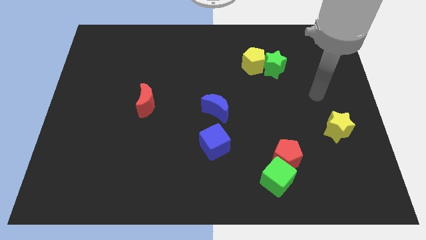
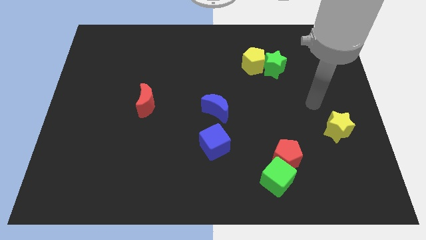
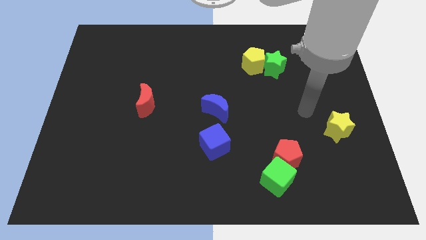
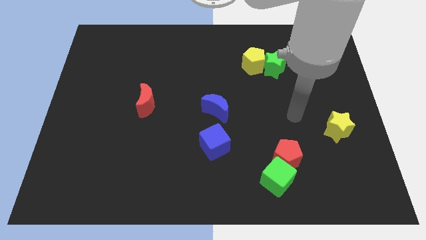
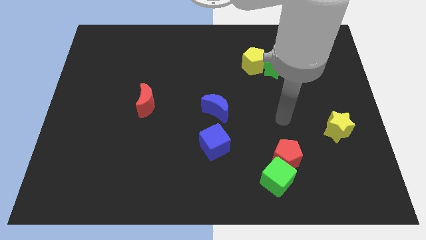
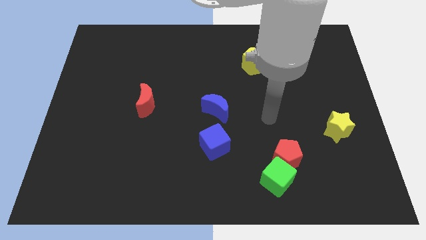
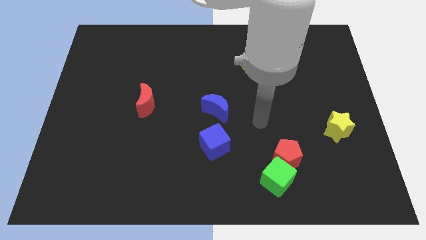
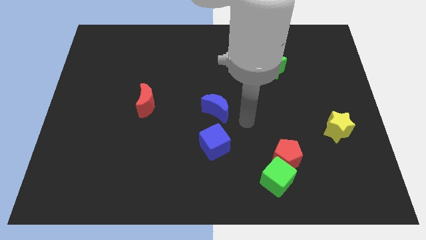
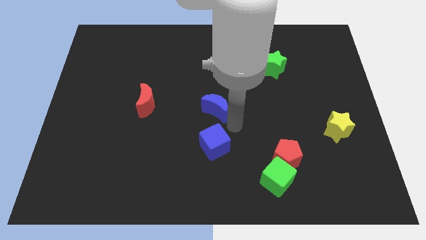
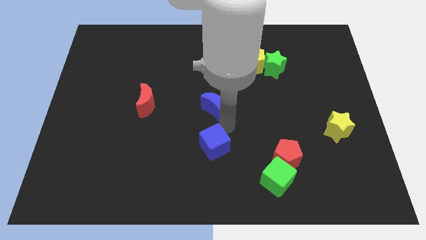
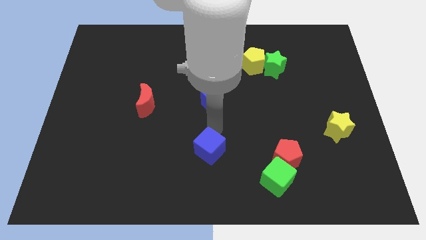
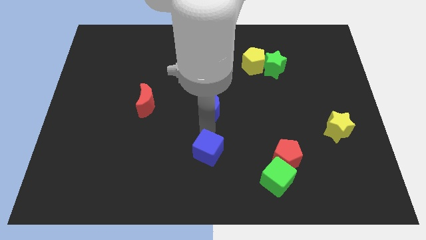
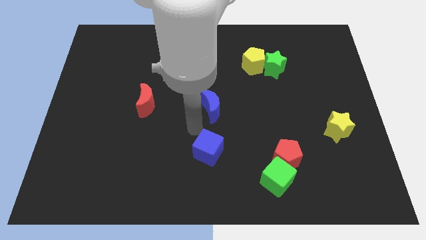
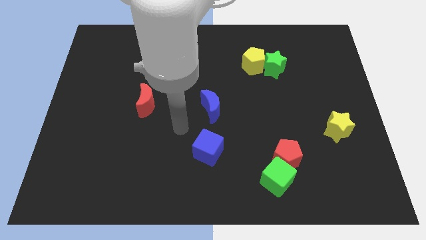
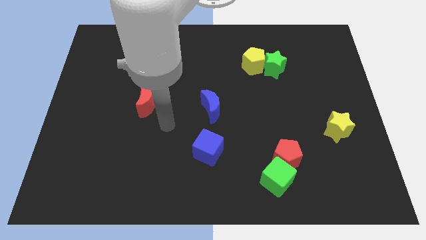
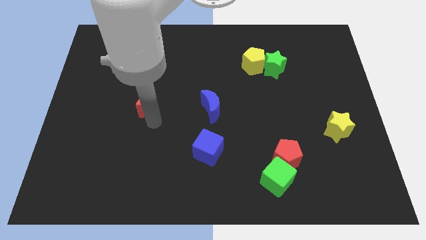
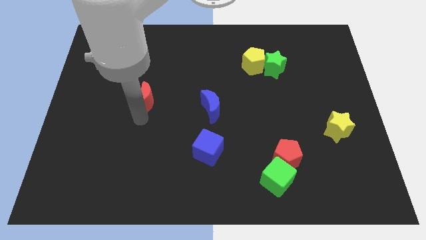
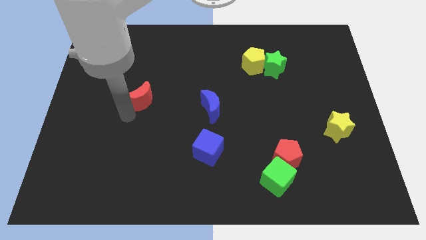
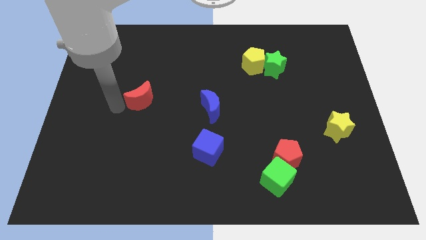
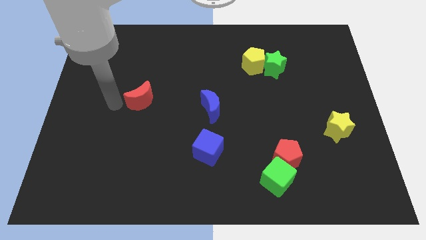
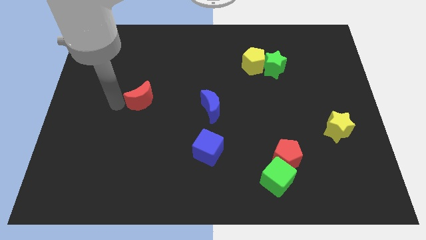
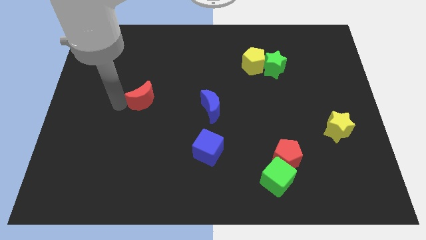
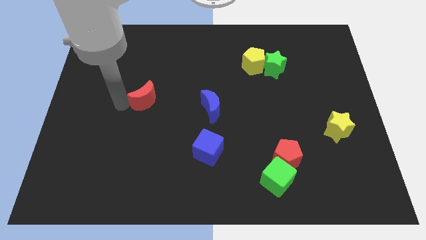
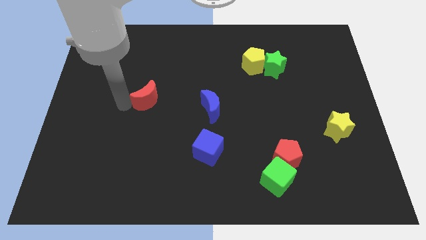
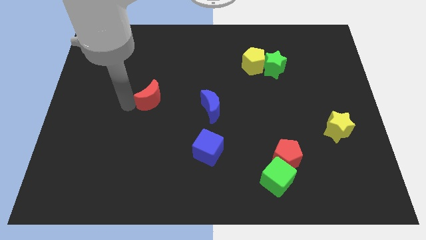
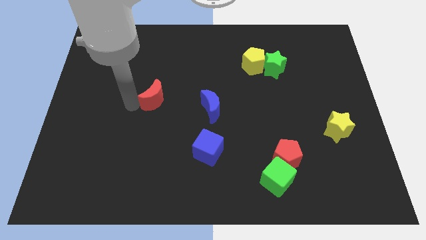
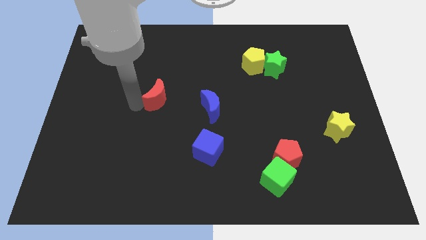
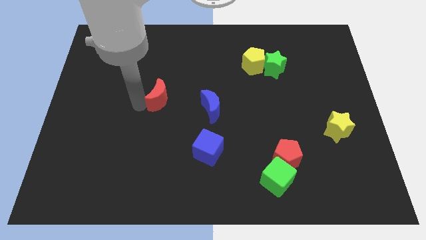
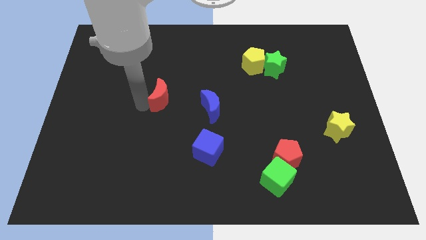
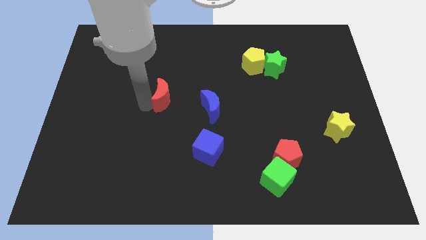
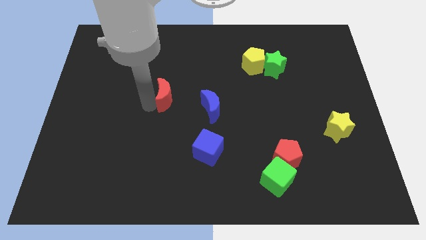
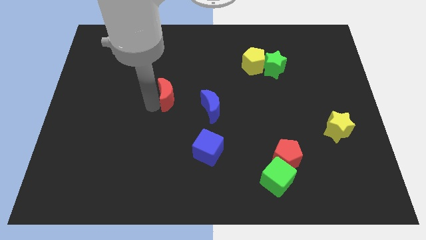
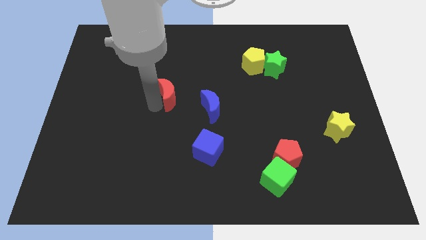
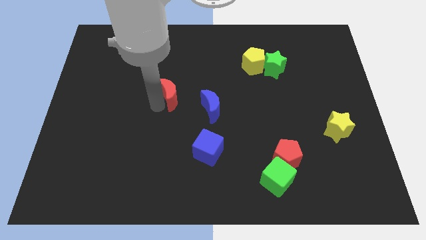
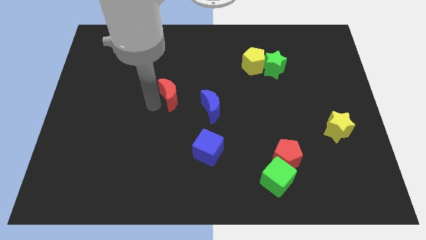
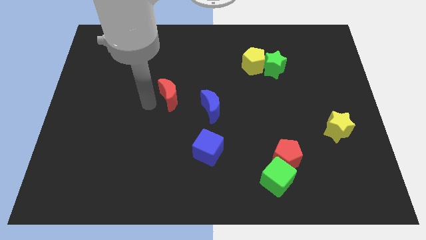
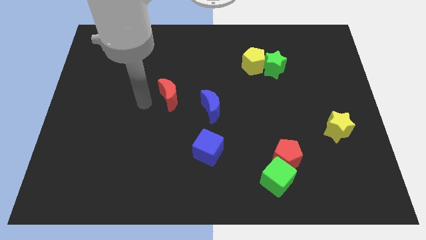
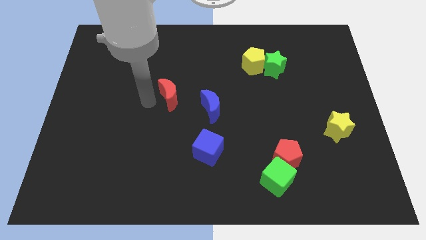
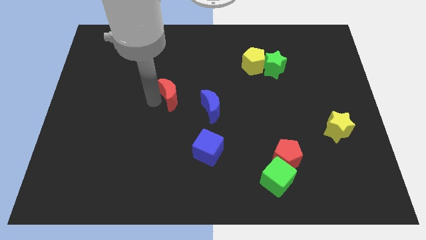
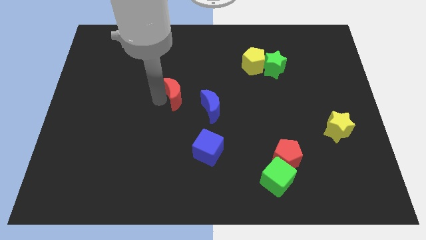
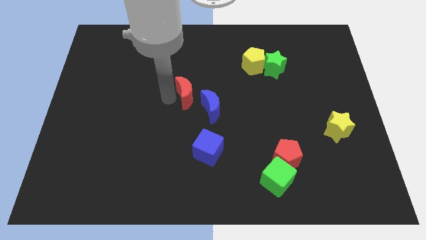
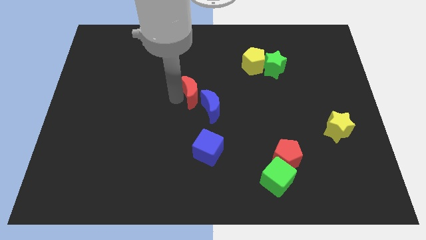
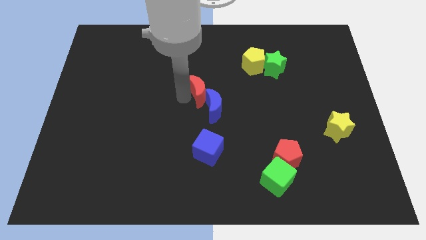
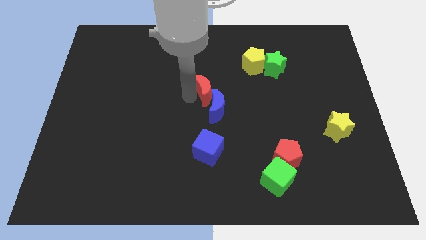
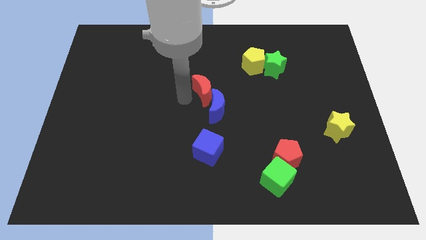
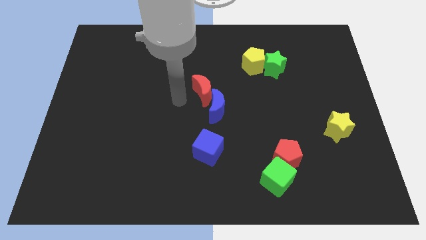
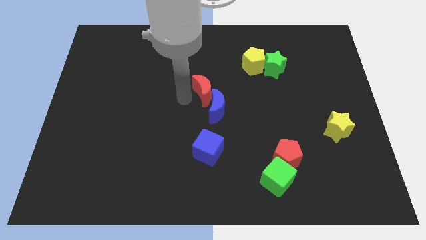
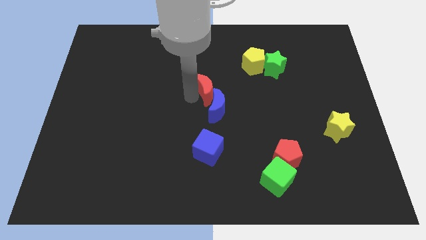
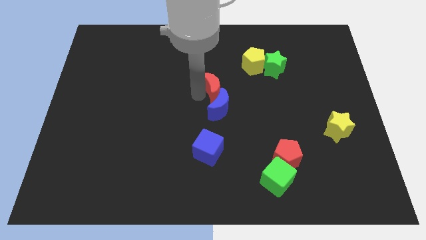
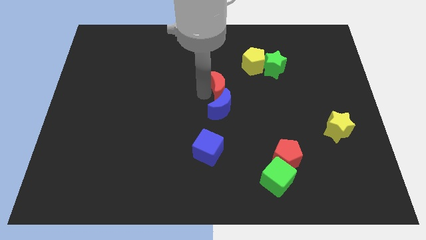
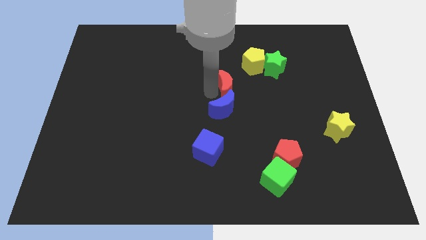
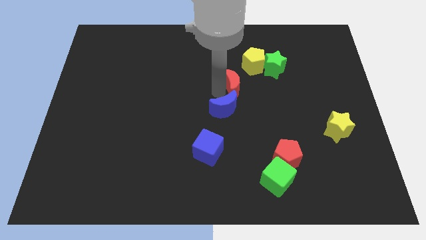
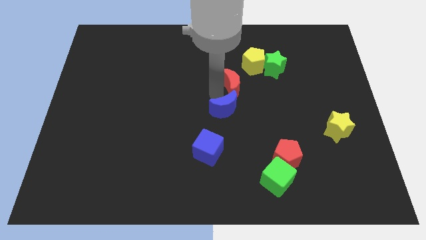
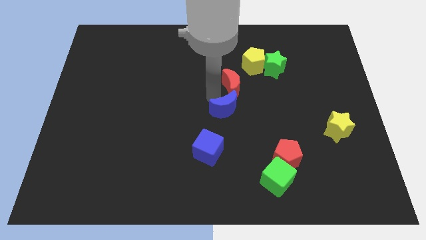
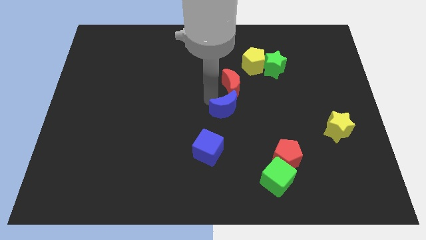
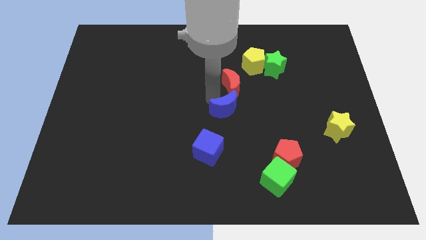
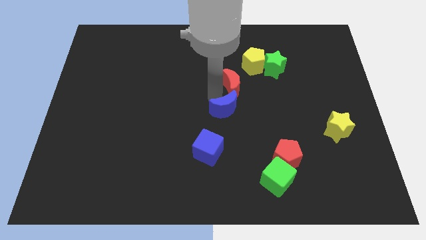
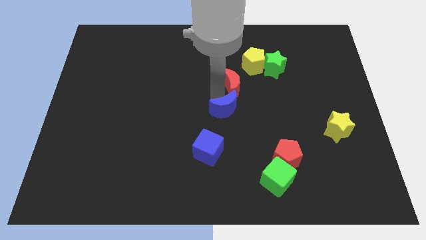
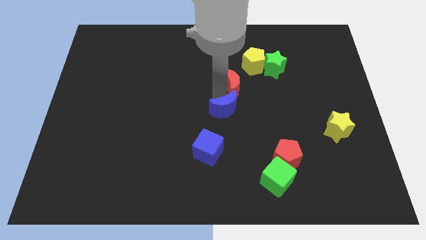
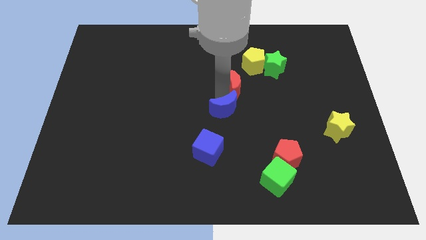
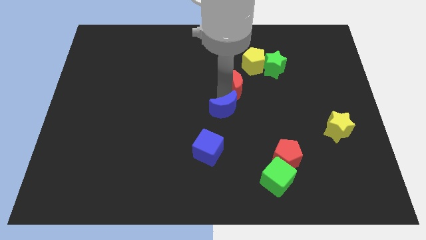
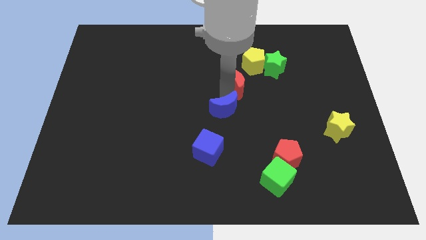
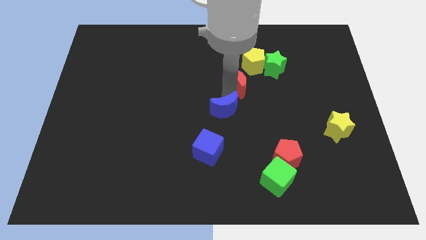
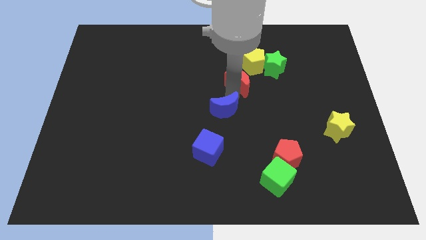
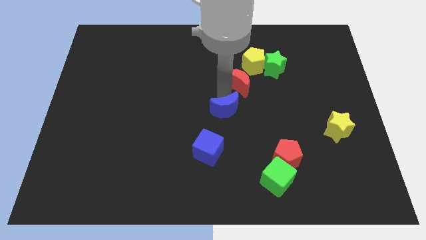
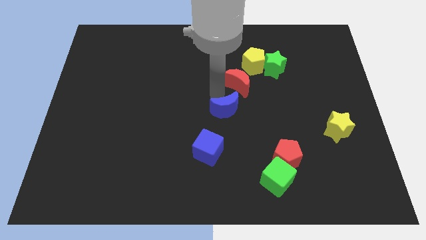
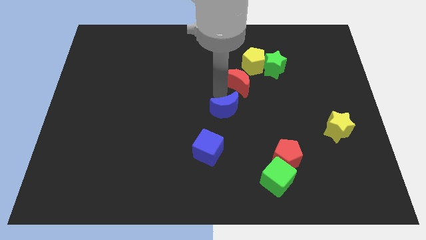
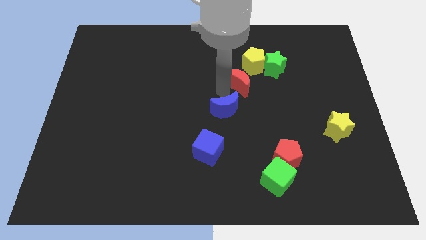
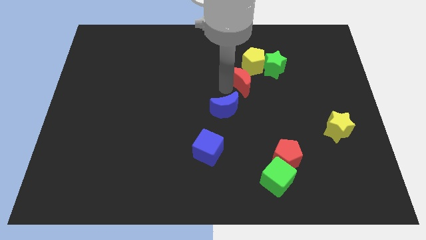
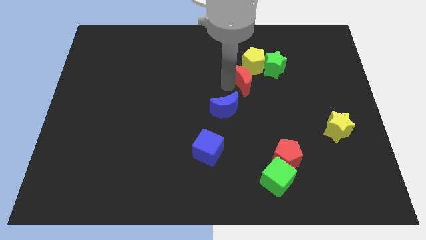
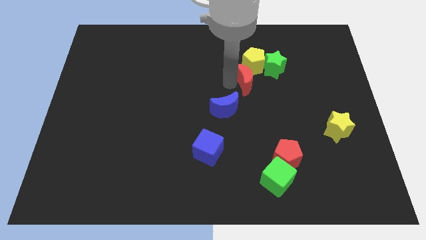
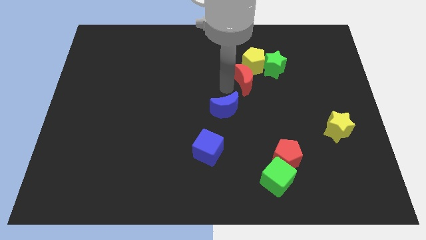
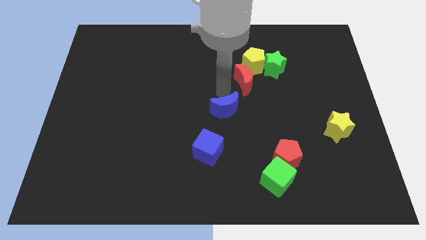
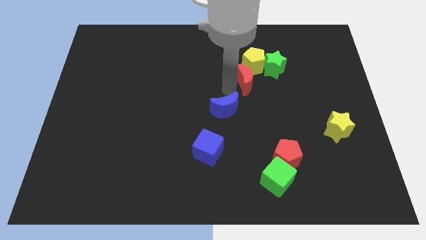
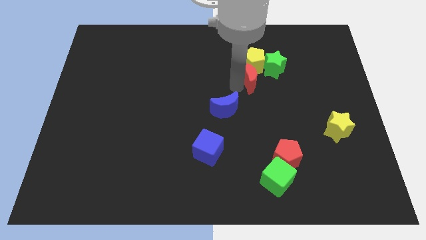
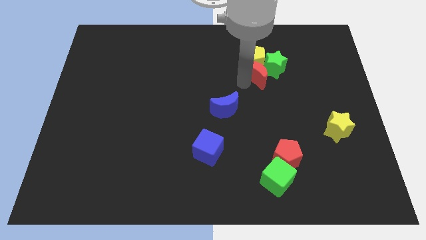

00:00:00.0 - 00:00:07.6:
slide the red moon to the green star

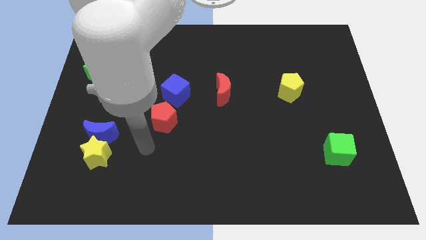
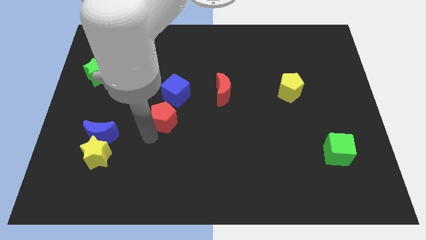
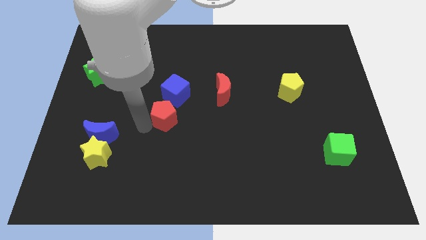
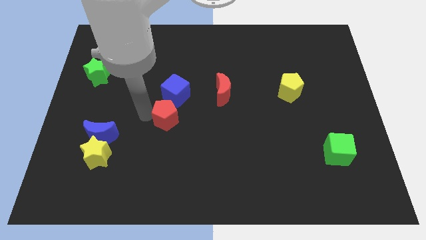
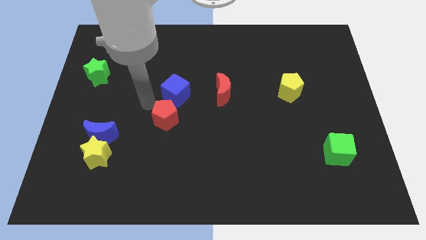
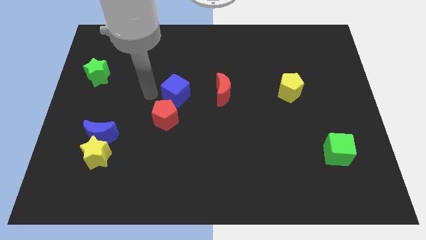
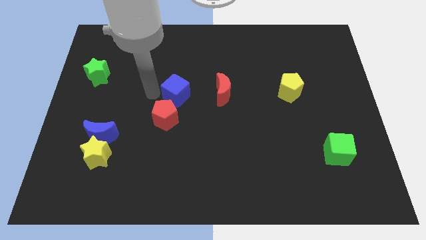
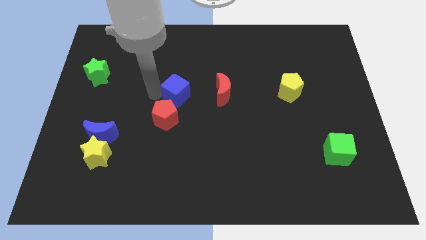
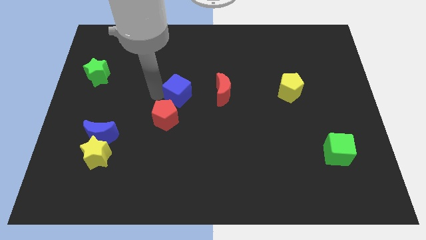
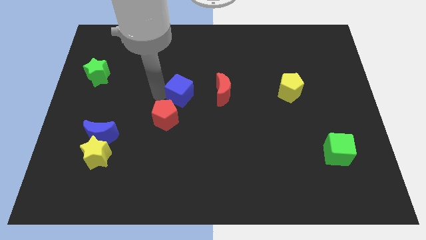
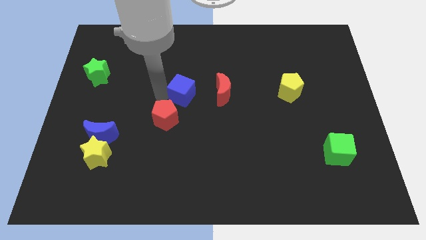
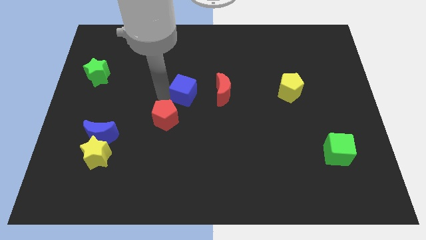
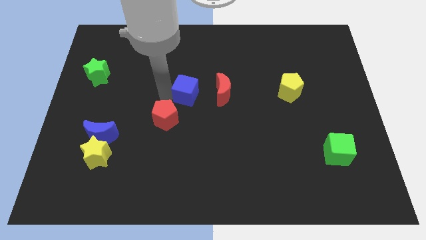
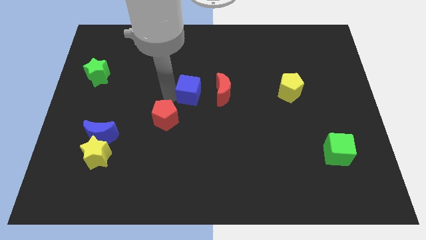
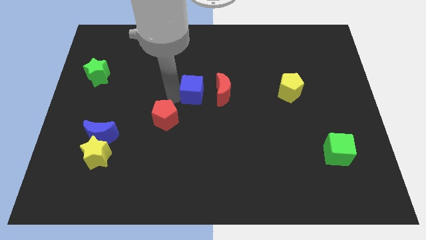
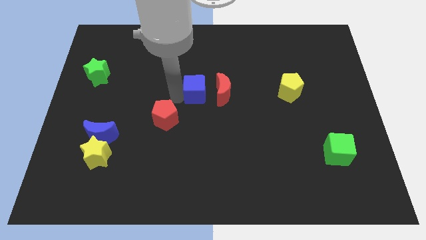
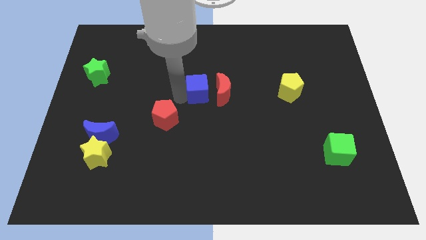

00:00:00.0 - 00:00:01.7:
push the blue cube next to the red moon
